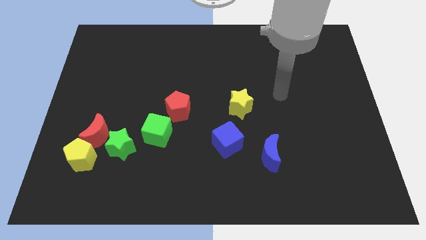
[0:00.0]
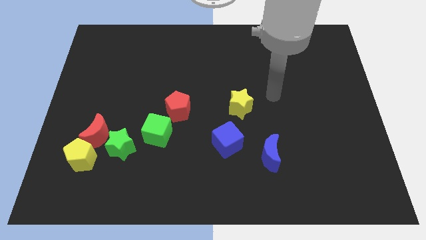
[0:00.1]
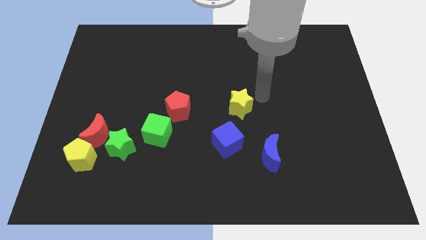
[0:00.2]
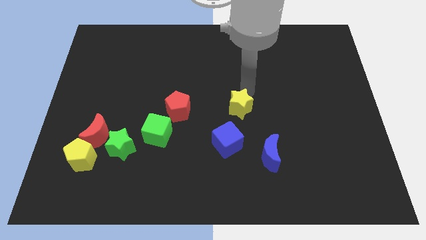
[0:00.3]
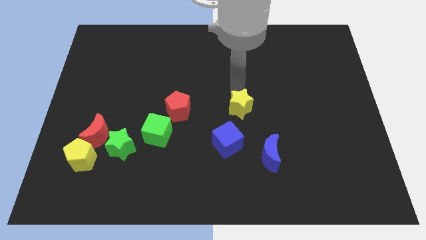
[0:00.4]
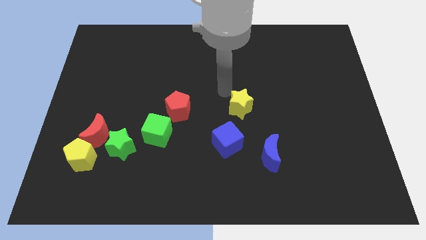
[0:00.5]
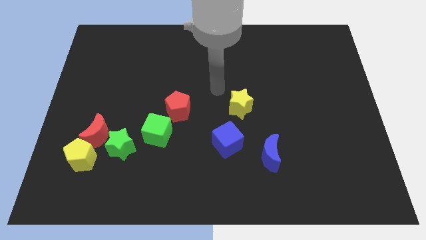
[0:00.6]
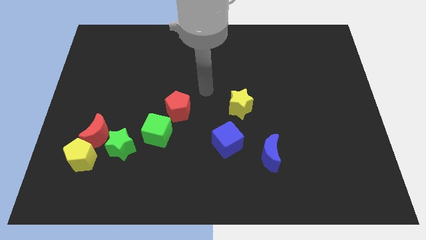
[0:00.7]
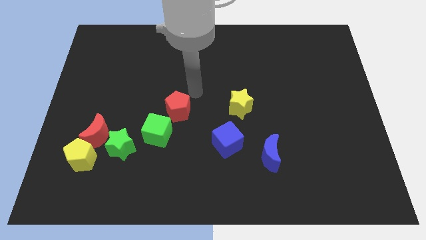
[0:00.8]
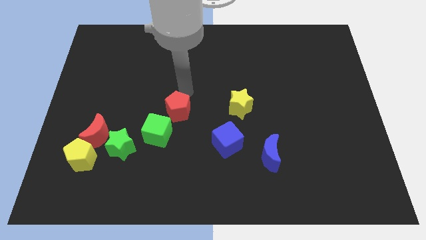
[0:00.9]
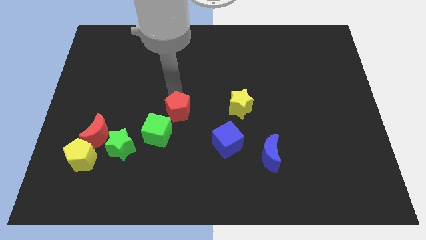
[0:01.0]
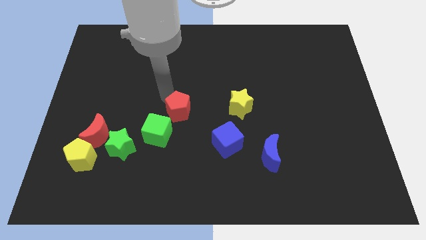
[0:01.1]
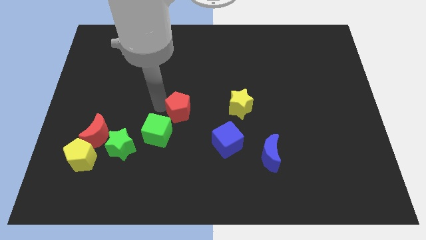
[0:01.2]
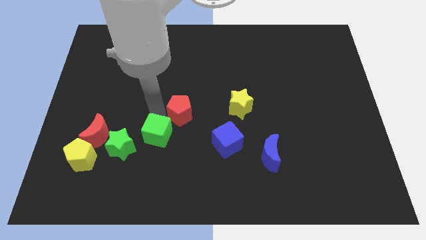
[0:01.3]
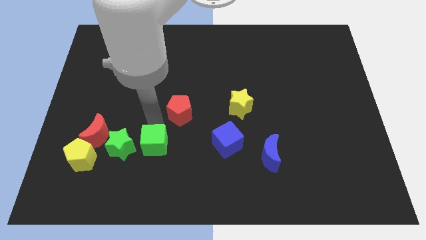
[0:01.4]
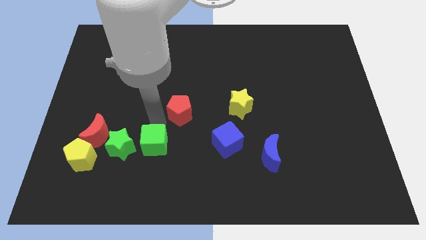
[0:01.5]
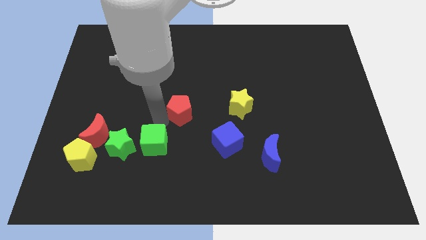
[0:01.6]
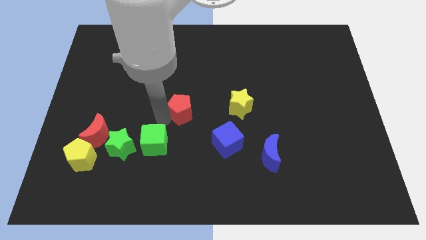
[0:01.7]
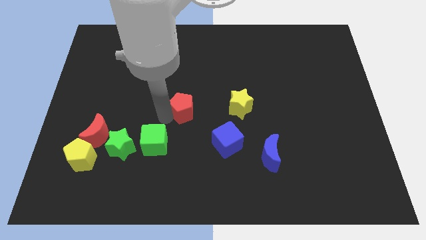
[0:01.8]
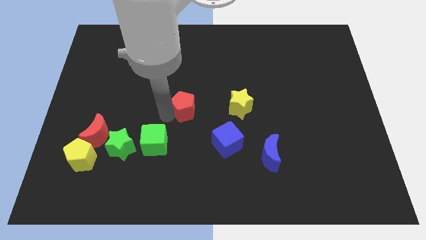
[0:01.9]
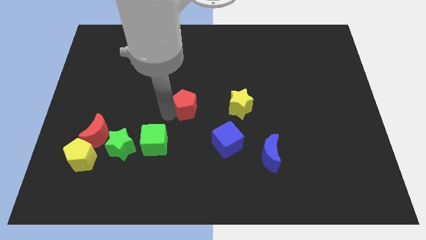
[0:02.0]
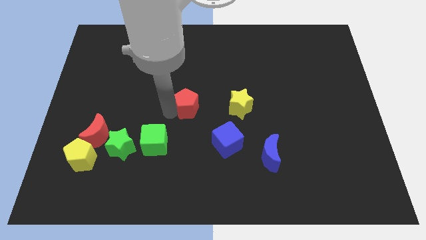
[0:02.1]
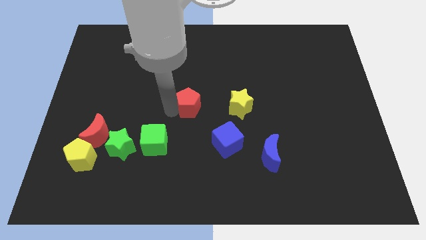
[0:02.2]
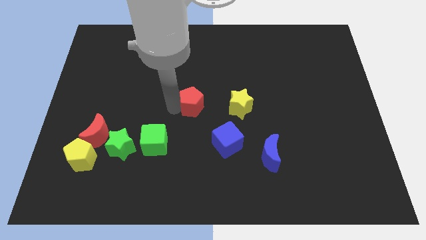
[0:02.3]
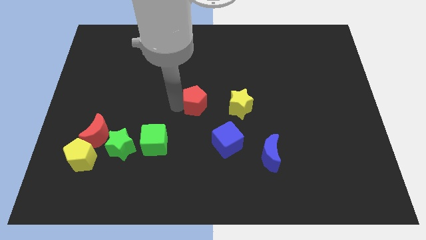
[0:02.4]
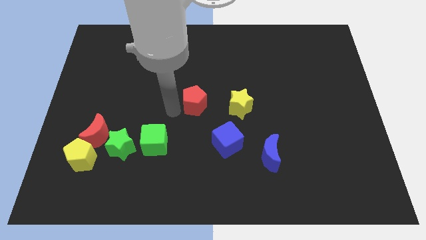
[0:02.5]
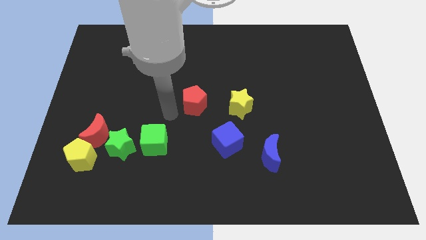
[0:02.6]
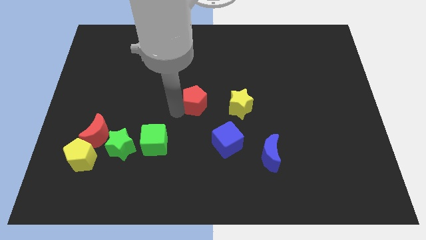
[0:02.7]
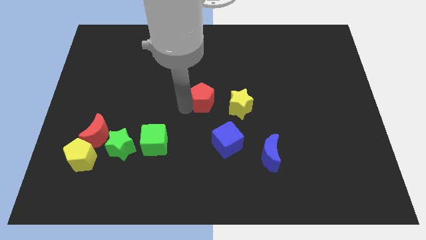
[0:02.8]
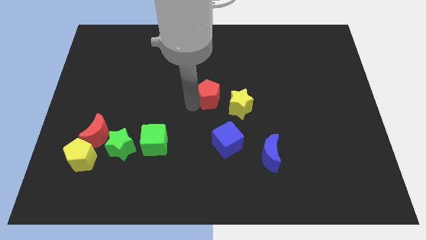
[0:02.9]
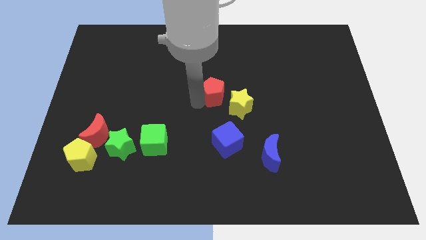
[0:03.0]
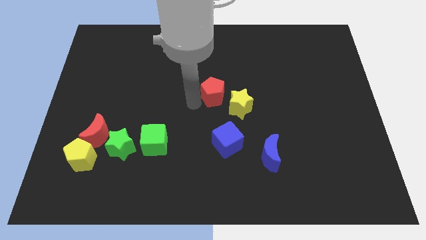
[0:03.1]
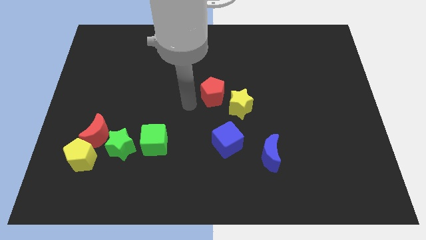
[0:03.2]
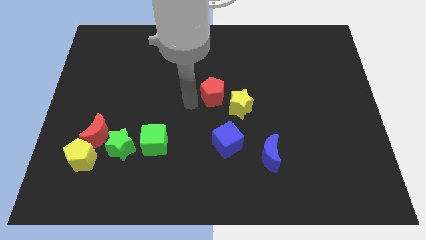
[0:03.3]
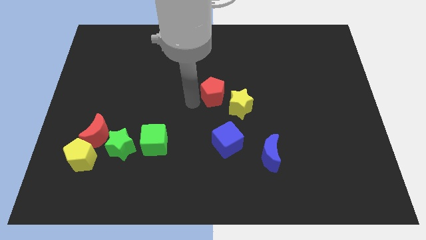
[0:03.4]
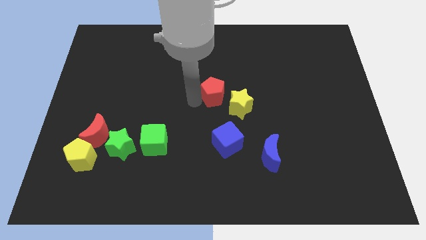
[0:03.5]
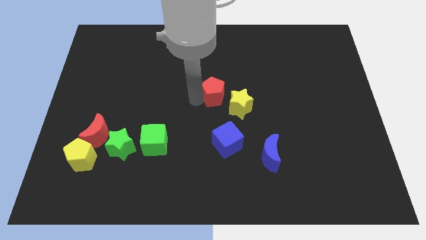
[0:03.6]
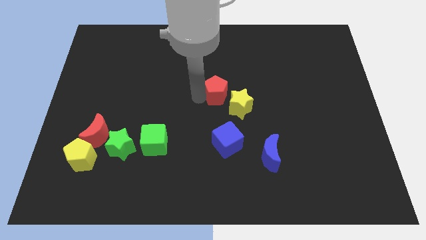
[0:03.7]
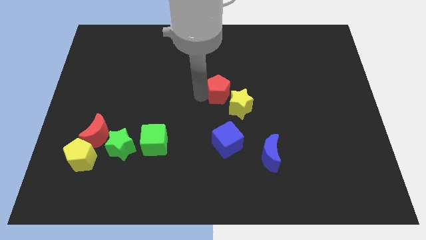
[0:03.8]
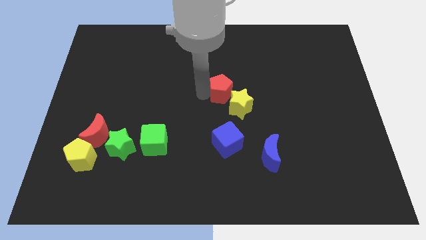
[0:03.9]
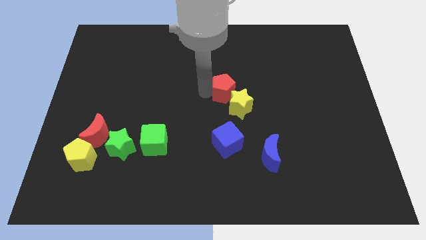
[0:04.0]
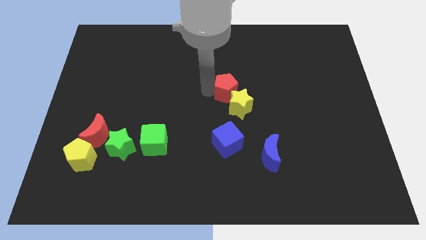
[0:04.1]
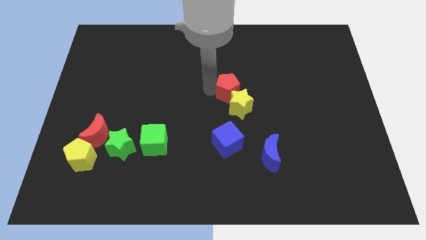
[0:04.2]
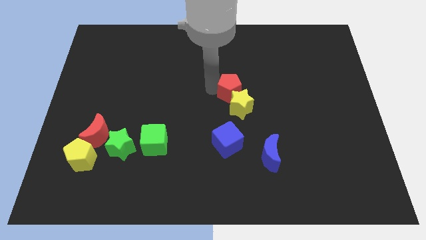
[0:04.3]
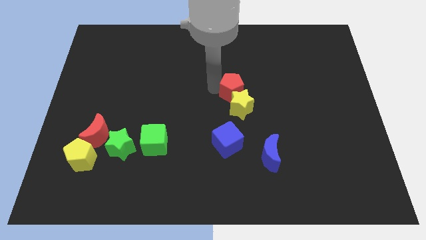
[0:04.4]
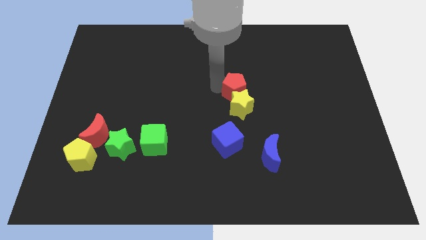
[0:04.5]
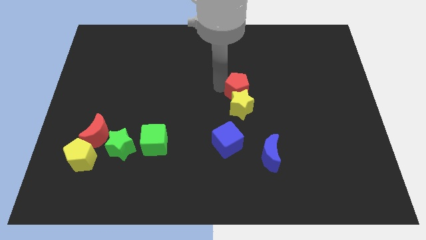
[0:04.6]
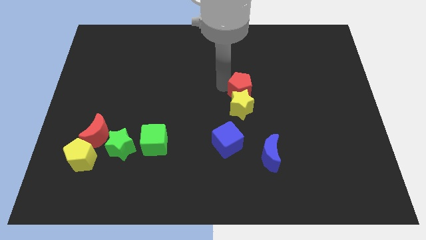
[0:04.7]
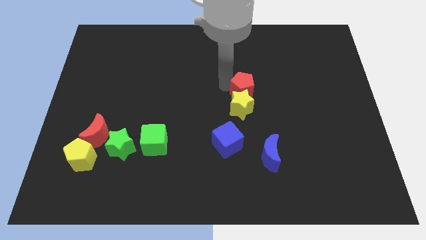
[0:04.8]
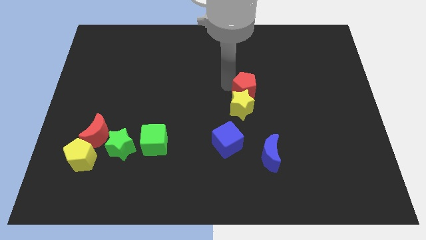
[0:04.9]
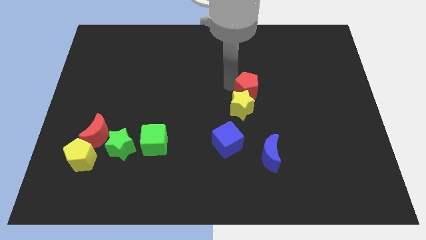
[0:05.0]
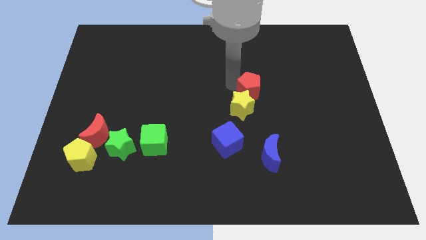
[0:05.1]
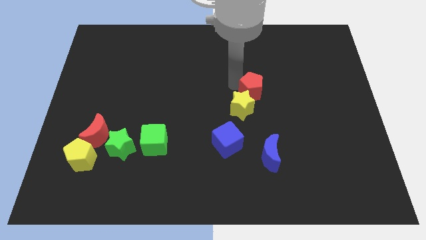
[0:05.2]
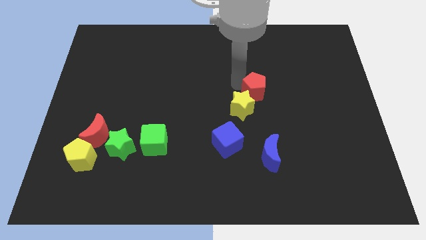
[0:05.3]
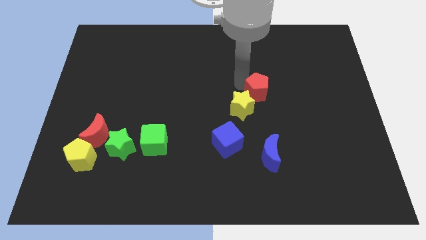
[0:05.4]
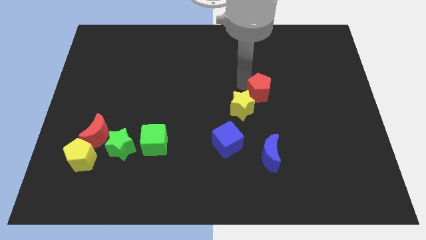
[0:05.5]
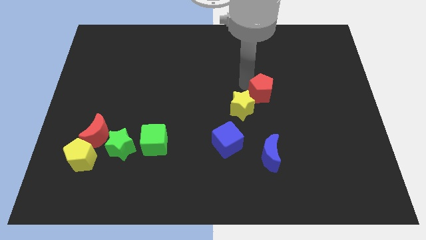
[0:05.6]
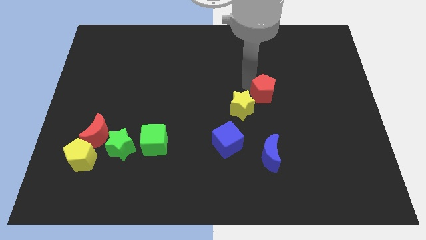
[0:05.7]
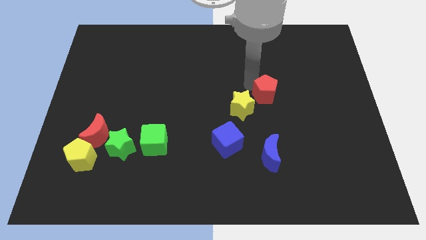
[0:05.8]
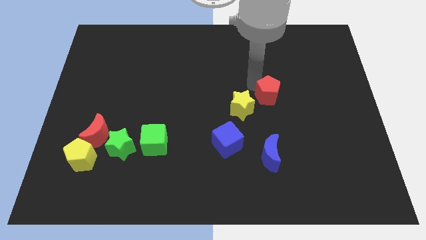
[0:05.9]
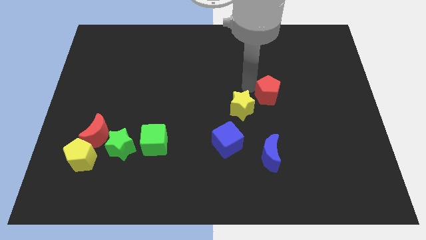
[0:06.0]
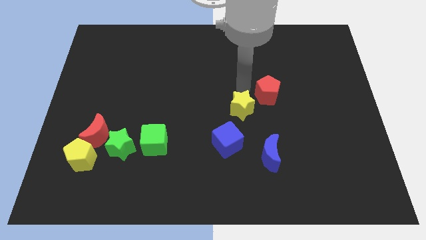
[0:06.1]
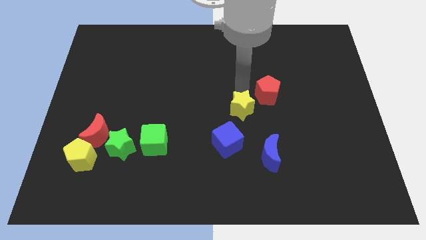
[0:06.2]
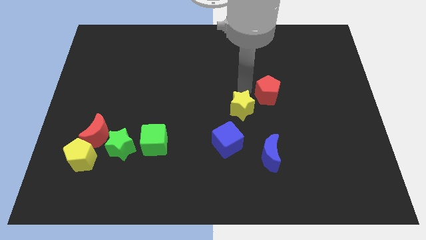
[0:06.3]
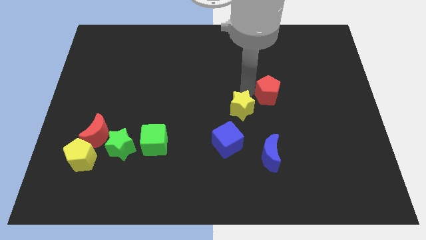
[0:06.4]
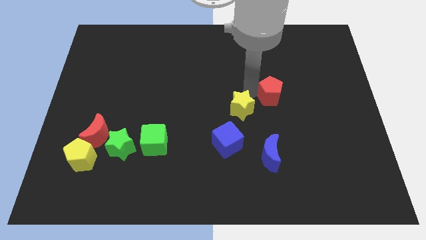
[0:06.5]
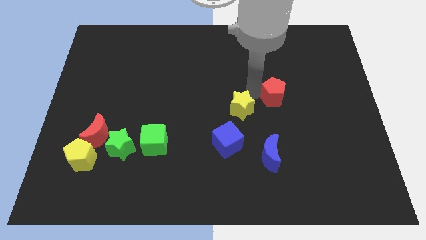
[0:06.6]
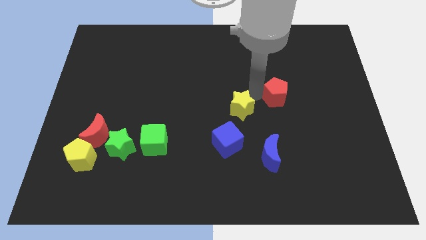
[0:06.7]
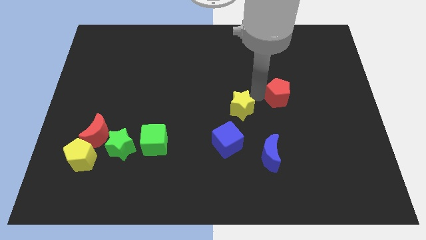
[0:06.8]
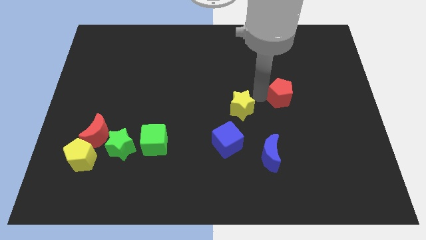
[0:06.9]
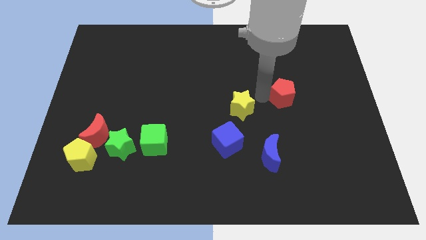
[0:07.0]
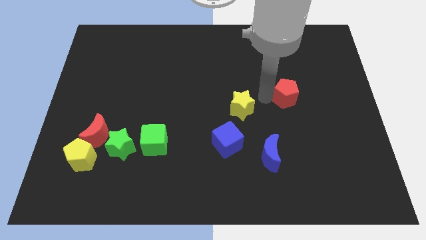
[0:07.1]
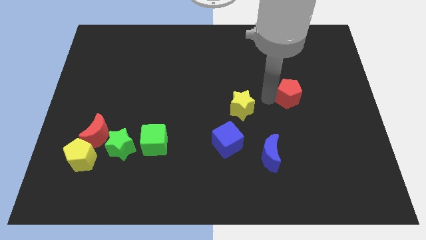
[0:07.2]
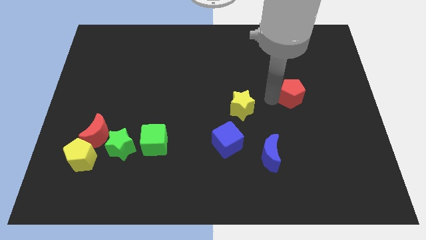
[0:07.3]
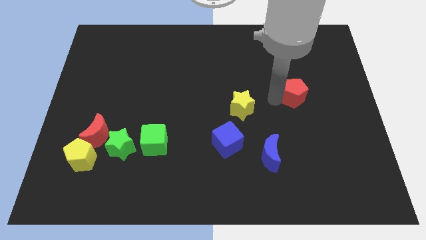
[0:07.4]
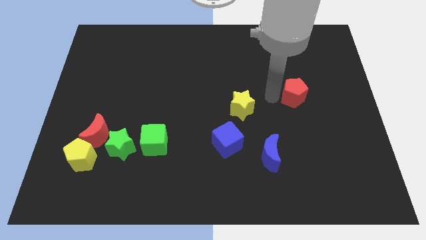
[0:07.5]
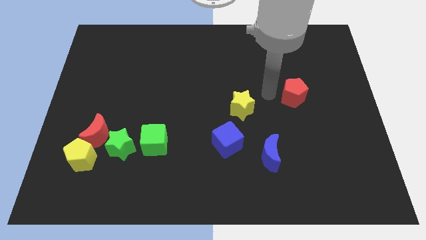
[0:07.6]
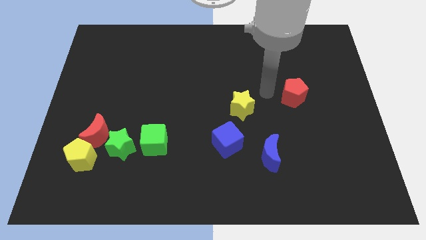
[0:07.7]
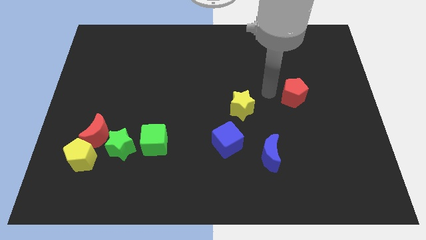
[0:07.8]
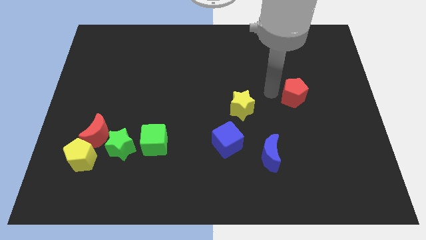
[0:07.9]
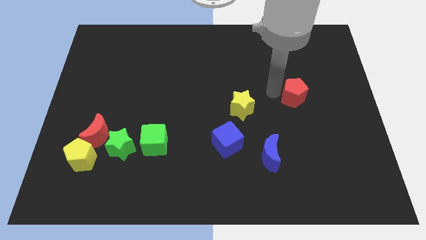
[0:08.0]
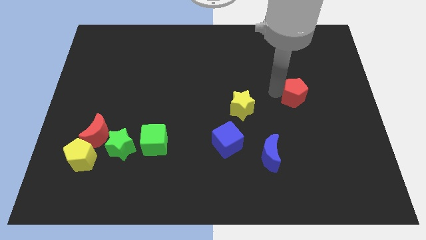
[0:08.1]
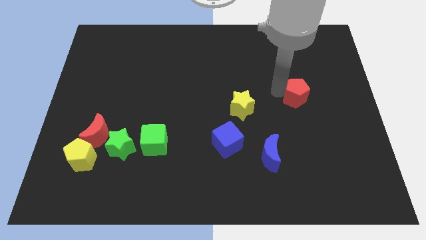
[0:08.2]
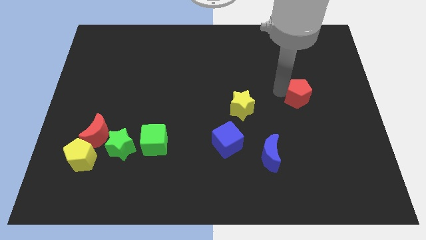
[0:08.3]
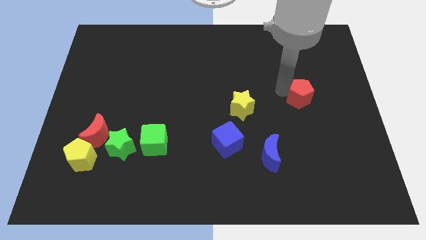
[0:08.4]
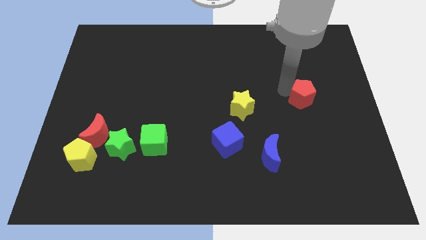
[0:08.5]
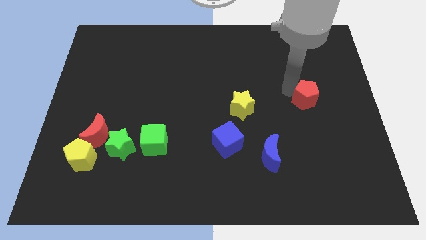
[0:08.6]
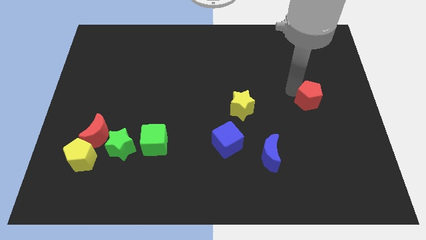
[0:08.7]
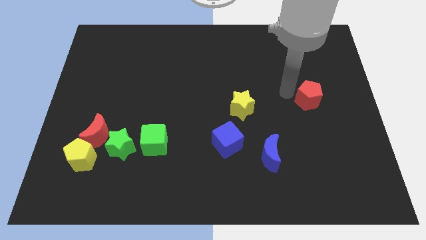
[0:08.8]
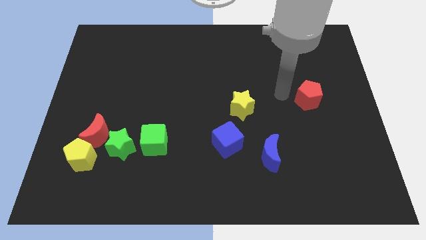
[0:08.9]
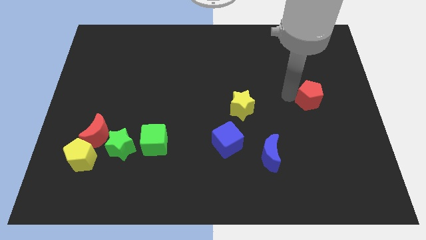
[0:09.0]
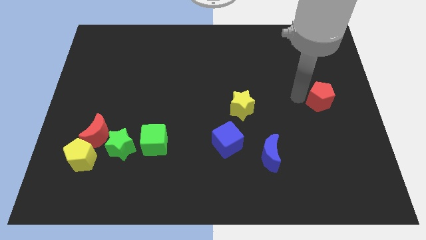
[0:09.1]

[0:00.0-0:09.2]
move the red pentagon to the right side
